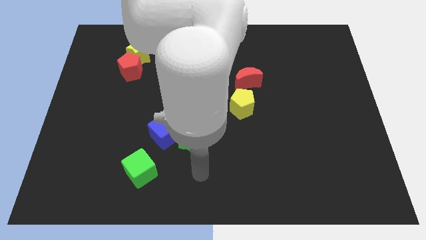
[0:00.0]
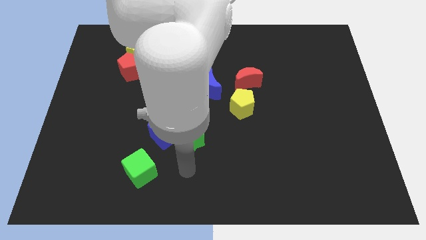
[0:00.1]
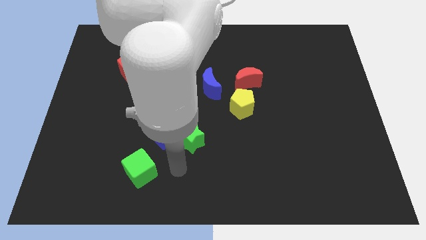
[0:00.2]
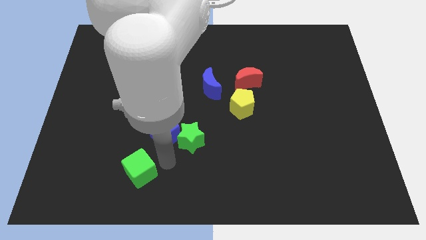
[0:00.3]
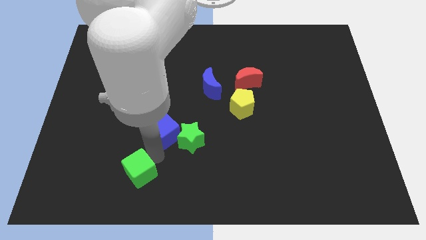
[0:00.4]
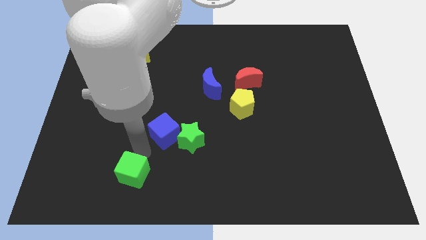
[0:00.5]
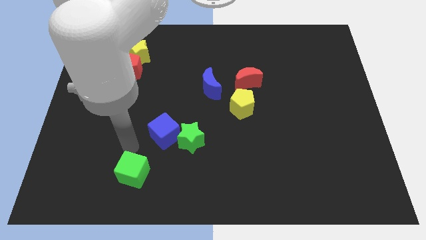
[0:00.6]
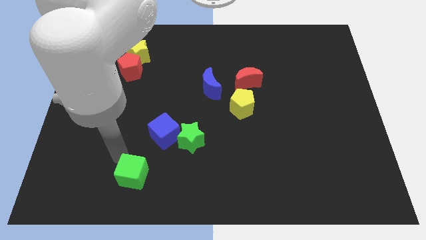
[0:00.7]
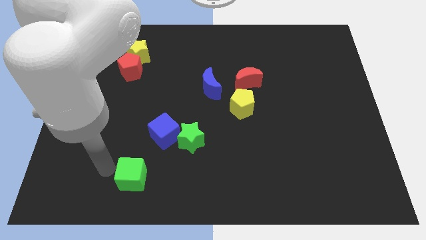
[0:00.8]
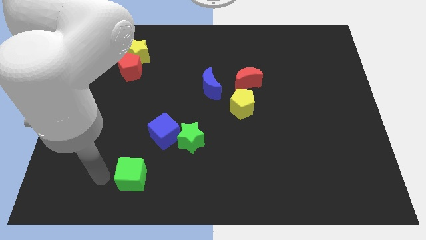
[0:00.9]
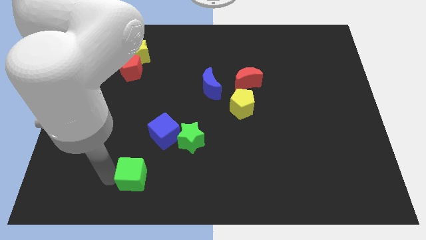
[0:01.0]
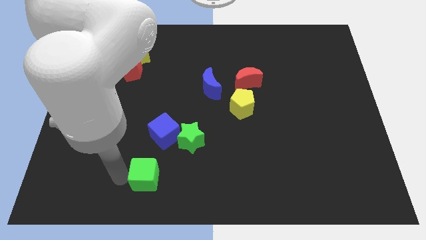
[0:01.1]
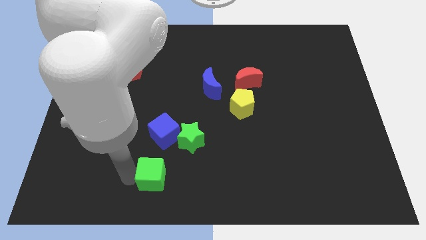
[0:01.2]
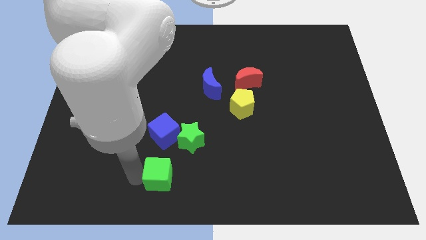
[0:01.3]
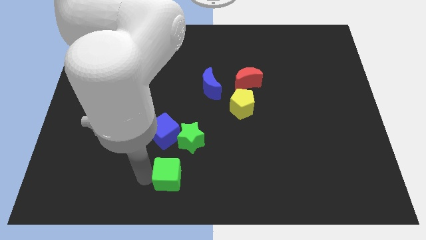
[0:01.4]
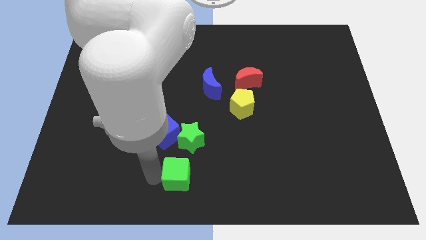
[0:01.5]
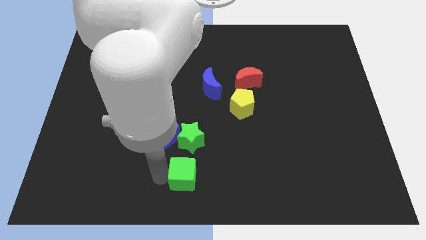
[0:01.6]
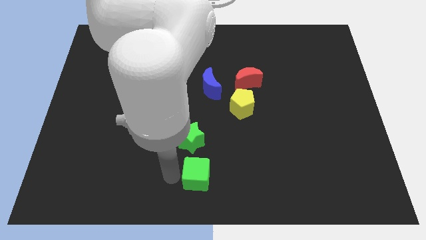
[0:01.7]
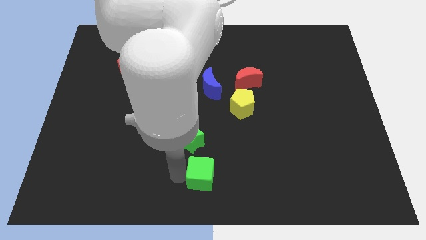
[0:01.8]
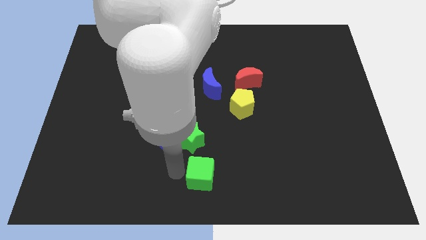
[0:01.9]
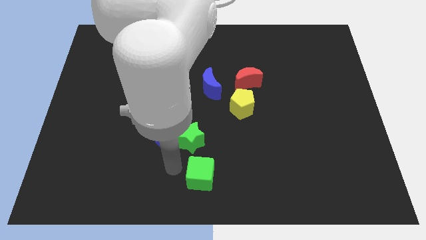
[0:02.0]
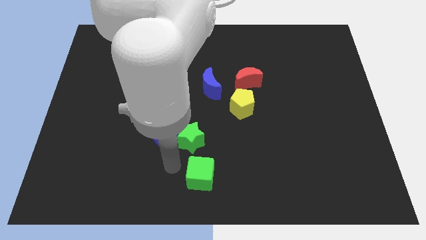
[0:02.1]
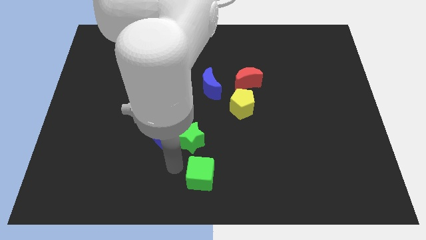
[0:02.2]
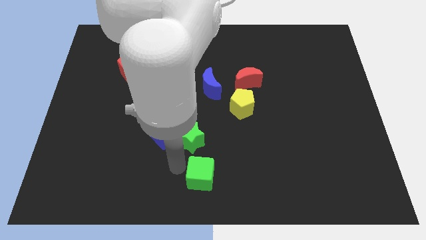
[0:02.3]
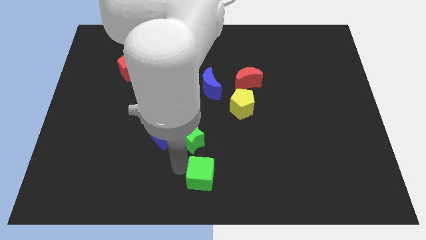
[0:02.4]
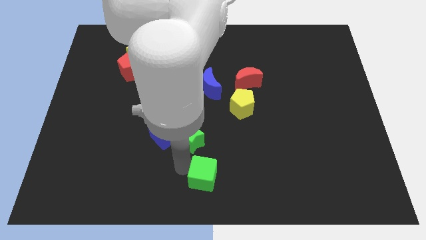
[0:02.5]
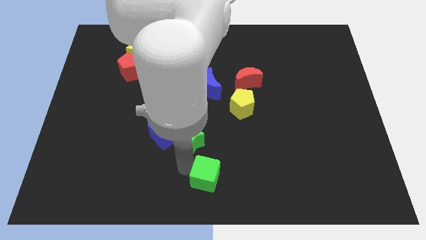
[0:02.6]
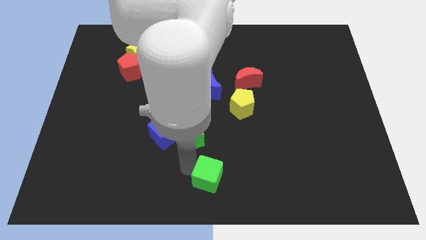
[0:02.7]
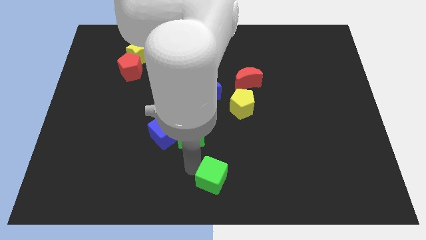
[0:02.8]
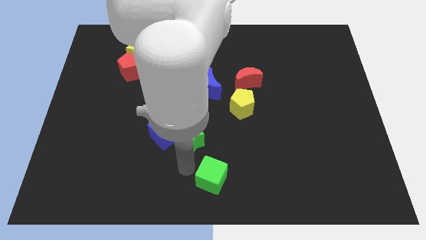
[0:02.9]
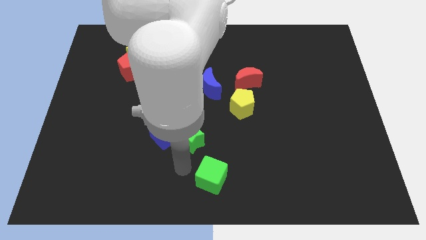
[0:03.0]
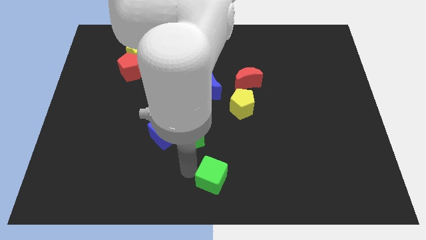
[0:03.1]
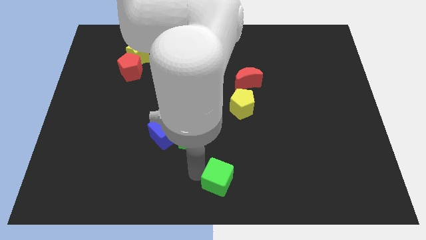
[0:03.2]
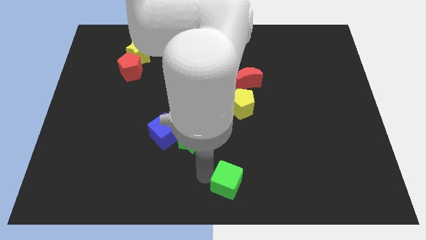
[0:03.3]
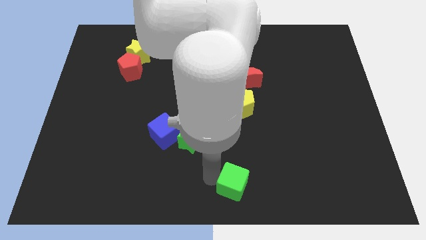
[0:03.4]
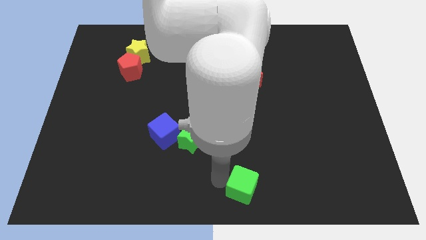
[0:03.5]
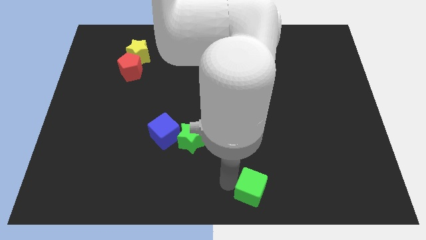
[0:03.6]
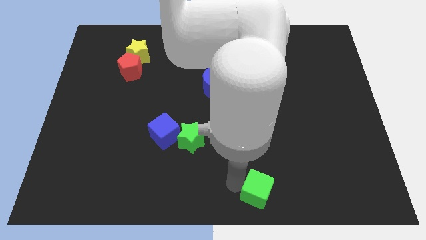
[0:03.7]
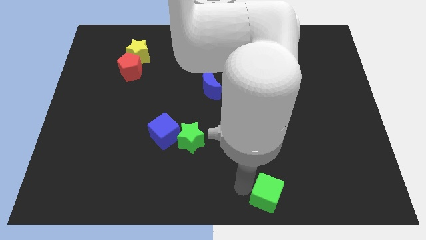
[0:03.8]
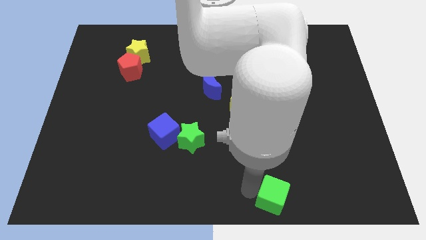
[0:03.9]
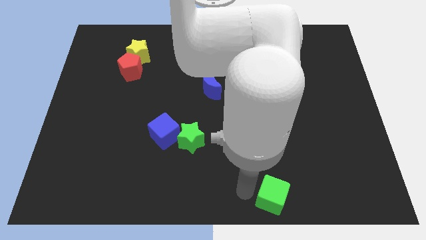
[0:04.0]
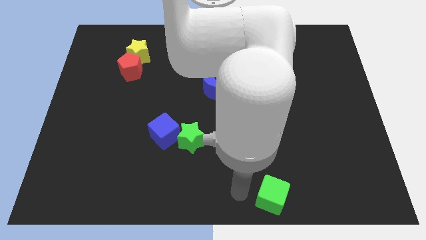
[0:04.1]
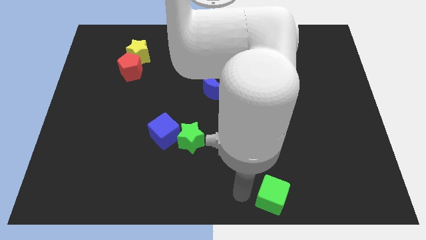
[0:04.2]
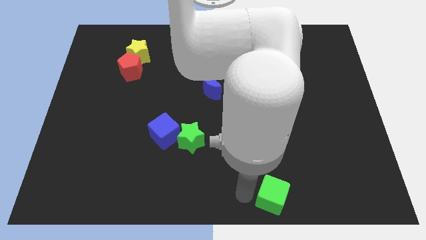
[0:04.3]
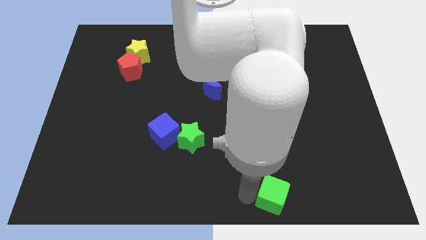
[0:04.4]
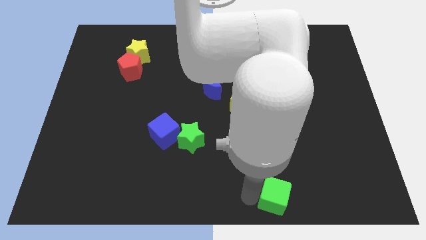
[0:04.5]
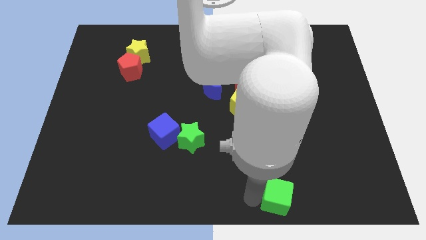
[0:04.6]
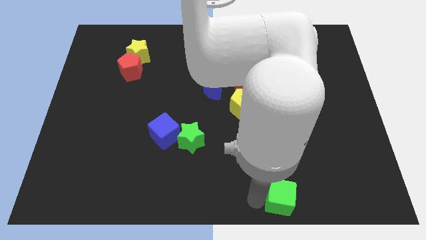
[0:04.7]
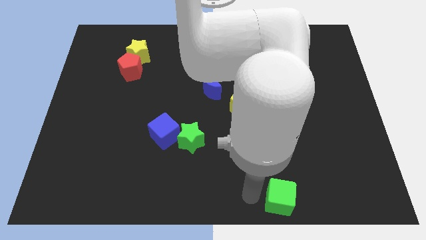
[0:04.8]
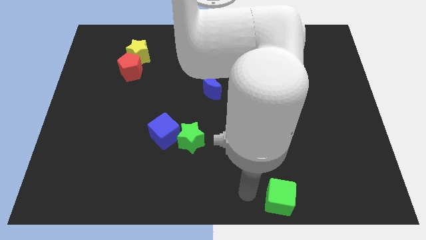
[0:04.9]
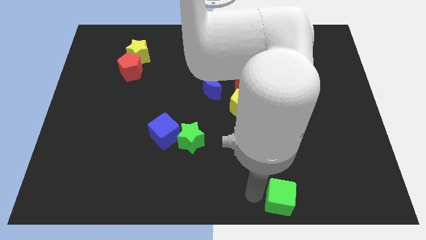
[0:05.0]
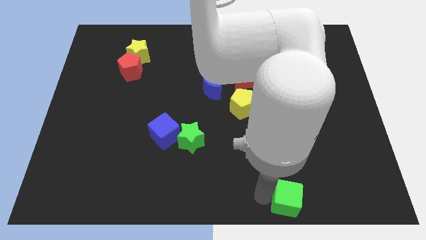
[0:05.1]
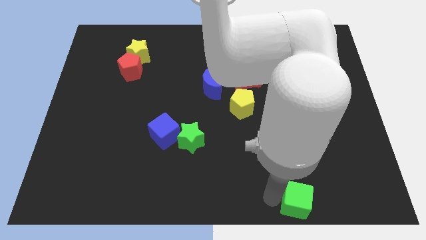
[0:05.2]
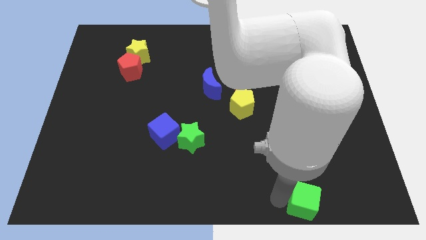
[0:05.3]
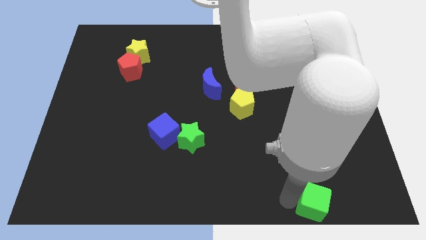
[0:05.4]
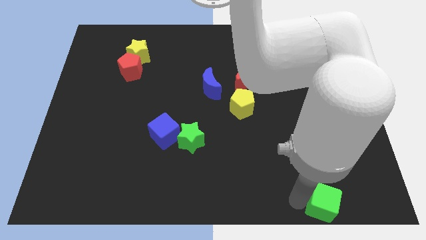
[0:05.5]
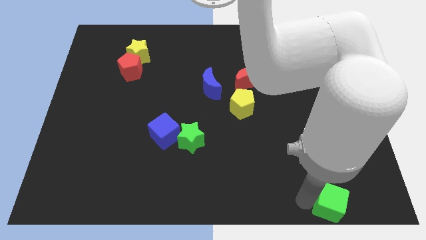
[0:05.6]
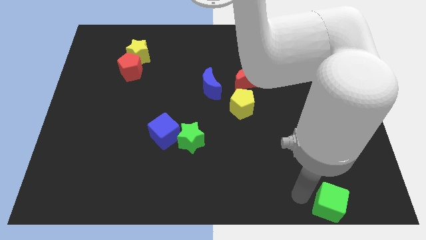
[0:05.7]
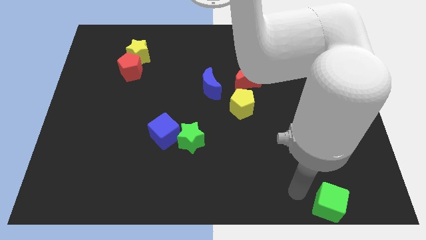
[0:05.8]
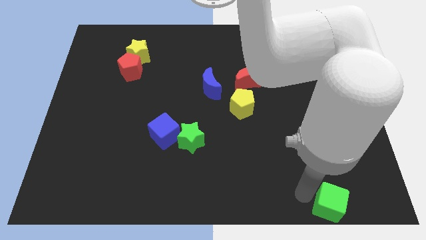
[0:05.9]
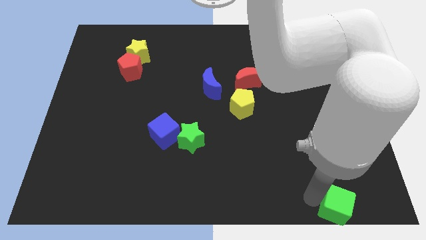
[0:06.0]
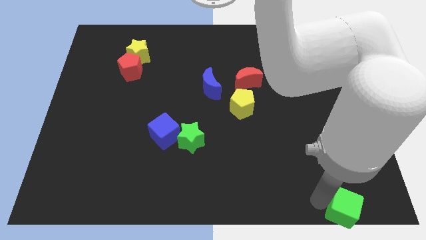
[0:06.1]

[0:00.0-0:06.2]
slide the green cube to the bottom right of the board

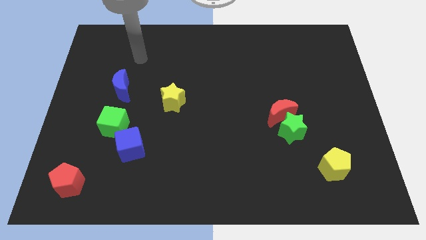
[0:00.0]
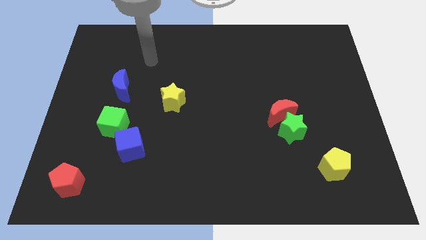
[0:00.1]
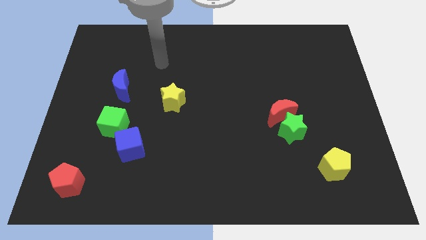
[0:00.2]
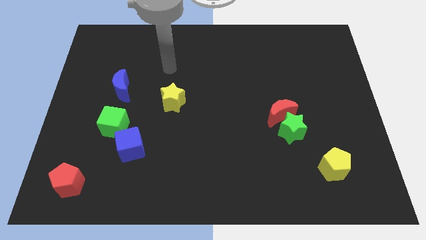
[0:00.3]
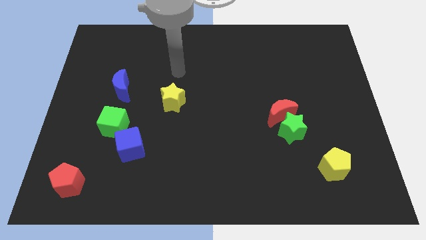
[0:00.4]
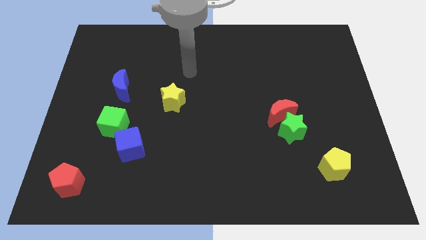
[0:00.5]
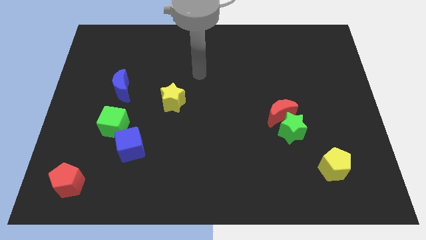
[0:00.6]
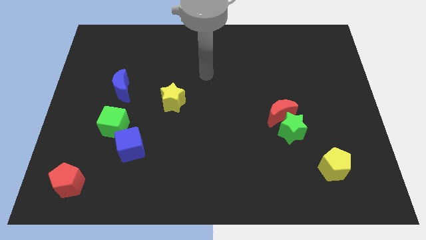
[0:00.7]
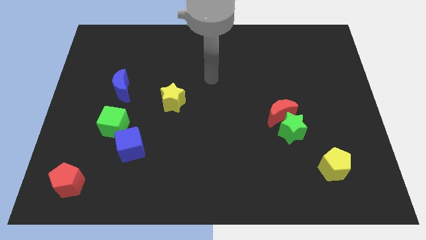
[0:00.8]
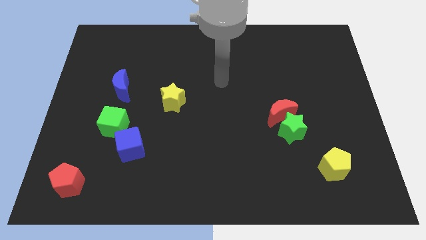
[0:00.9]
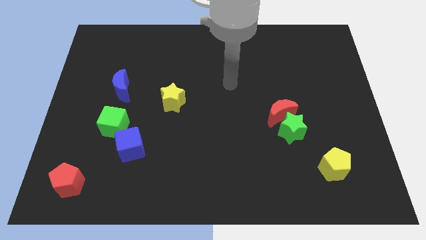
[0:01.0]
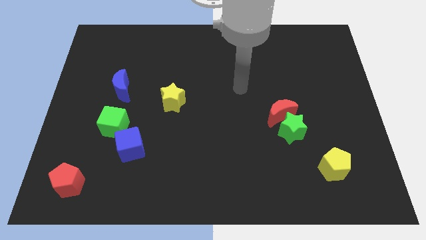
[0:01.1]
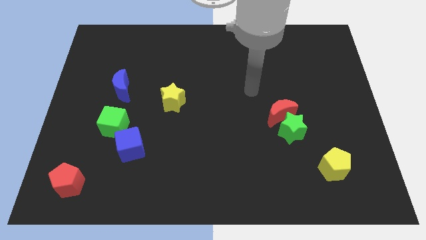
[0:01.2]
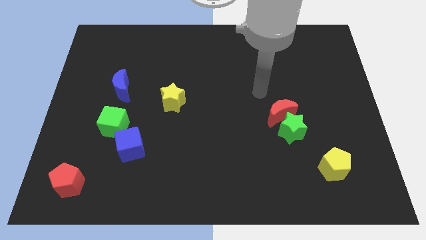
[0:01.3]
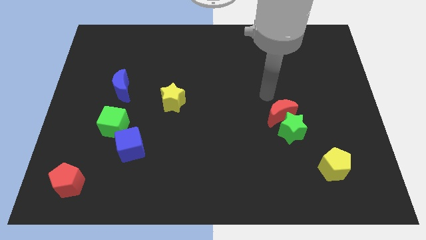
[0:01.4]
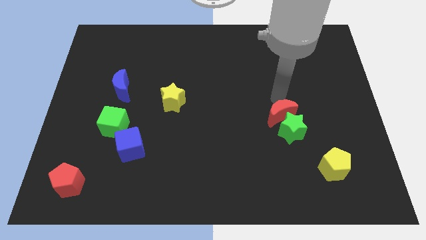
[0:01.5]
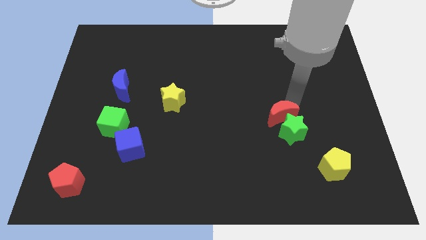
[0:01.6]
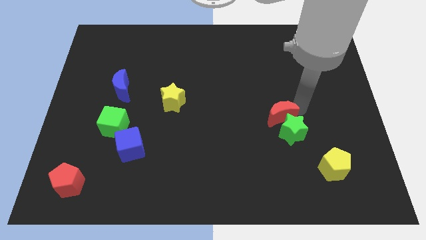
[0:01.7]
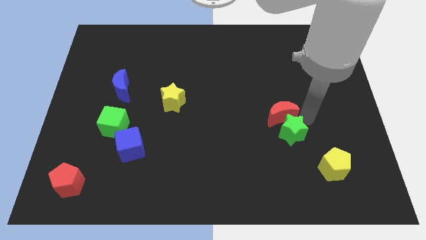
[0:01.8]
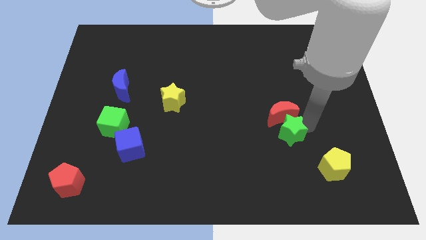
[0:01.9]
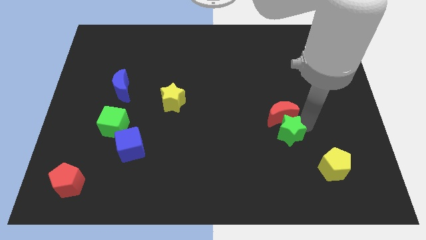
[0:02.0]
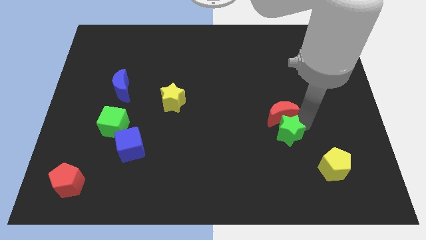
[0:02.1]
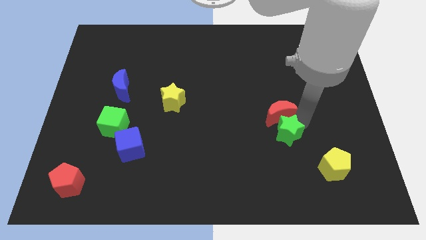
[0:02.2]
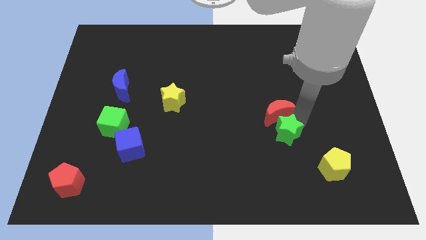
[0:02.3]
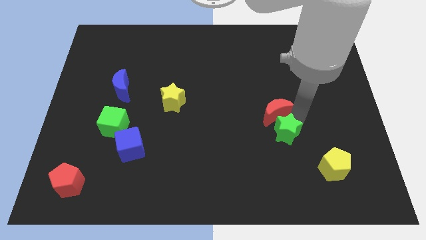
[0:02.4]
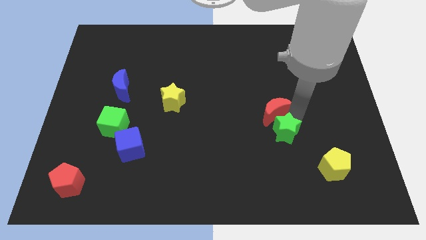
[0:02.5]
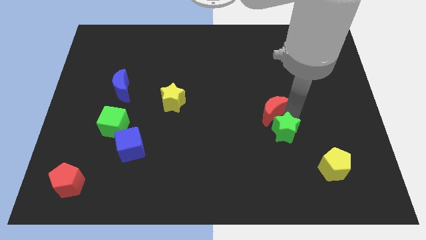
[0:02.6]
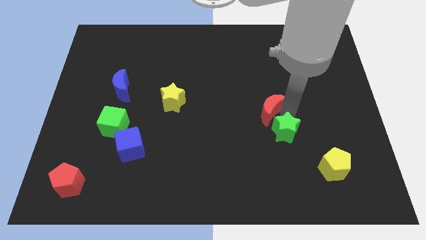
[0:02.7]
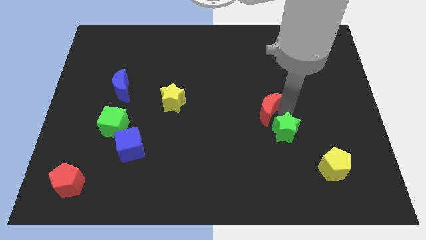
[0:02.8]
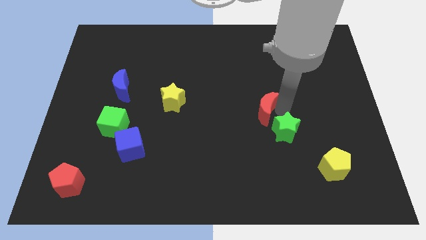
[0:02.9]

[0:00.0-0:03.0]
put the red moon to the center of the board
